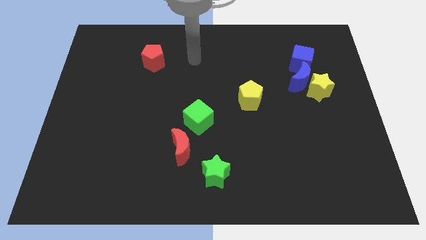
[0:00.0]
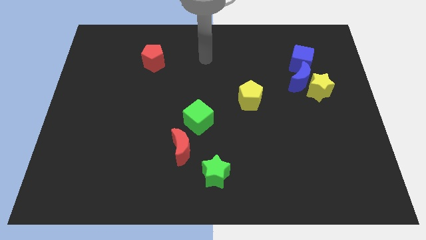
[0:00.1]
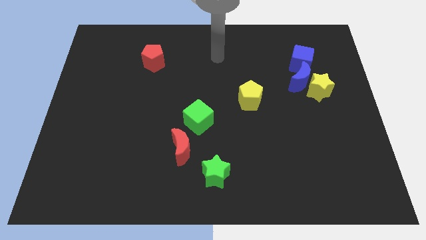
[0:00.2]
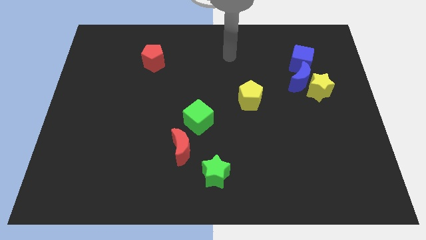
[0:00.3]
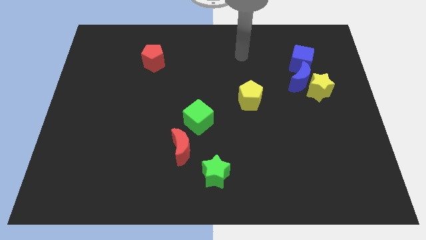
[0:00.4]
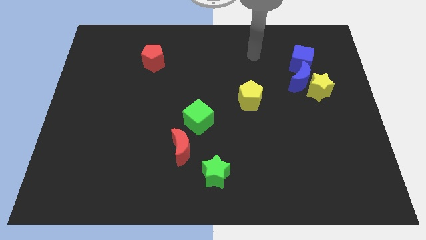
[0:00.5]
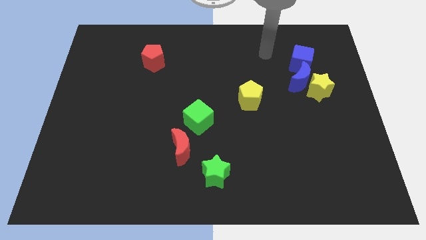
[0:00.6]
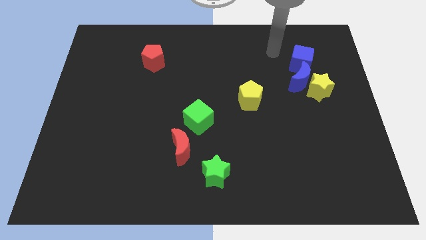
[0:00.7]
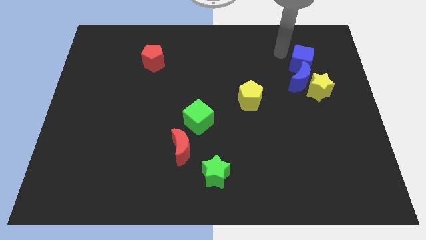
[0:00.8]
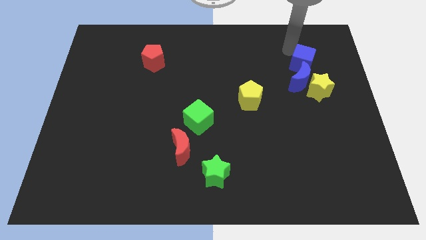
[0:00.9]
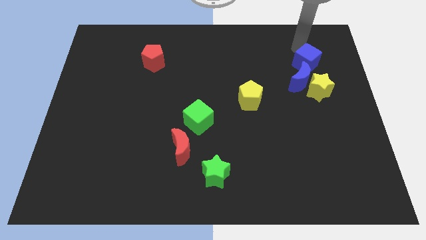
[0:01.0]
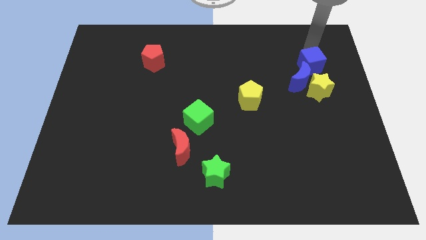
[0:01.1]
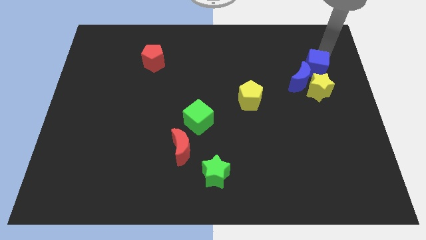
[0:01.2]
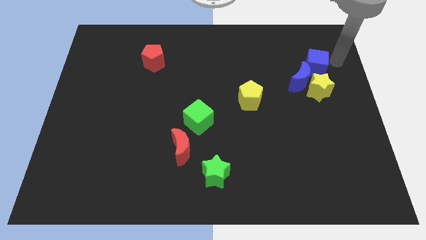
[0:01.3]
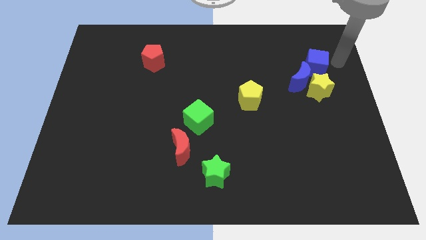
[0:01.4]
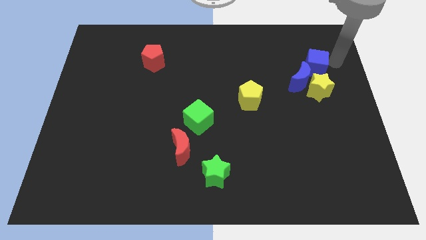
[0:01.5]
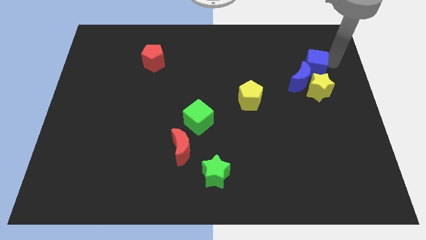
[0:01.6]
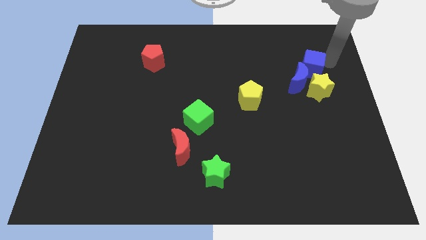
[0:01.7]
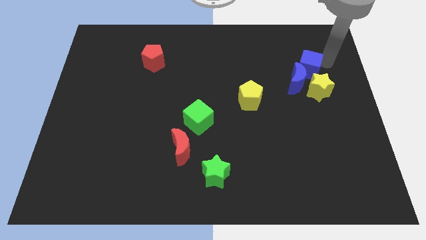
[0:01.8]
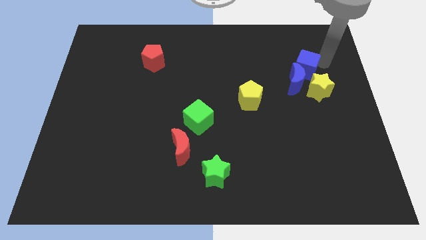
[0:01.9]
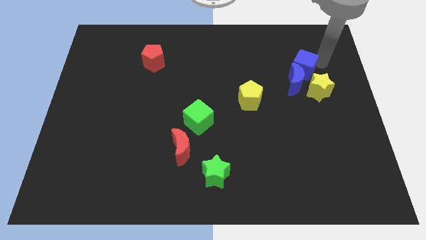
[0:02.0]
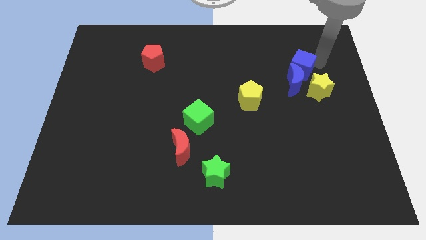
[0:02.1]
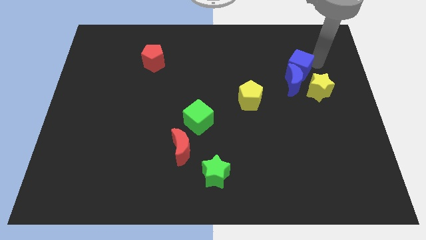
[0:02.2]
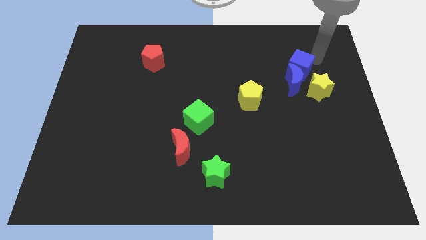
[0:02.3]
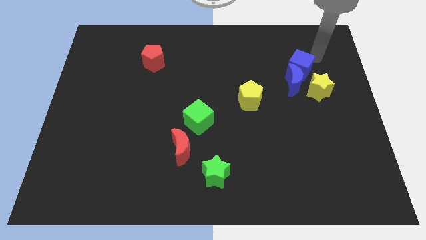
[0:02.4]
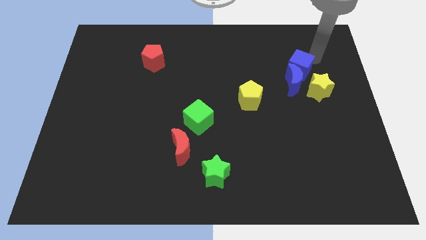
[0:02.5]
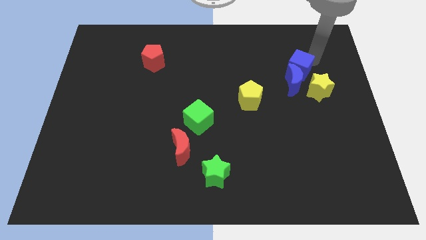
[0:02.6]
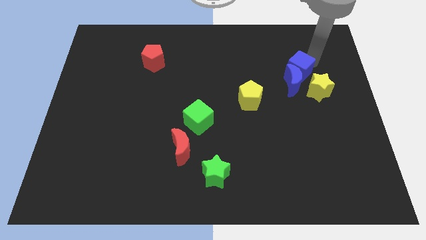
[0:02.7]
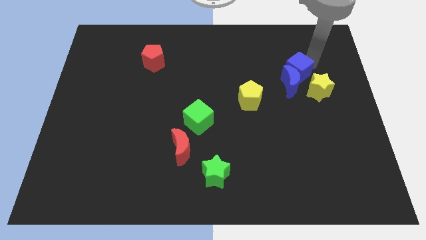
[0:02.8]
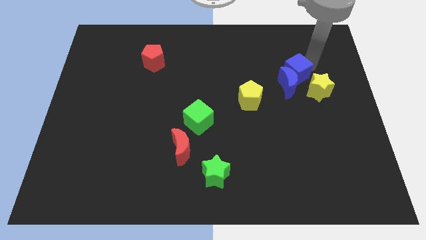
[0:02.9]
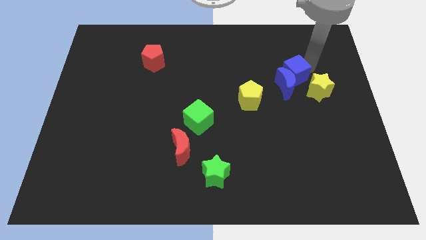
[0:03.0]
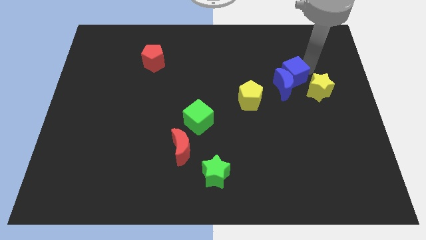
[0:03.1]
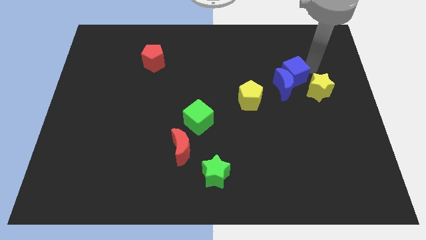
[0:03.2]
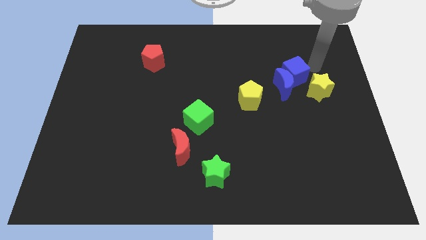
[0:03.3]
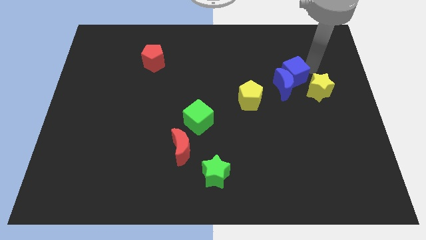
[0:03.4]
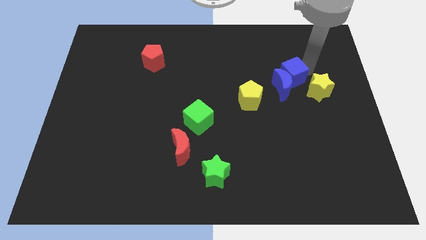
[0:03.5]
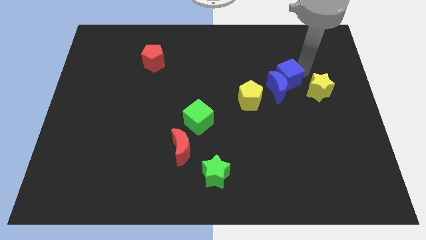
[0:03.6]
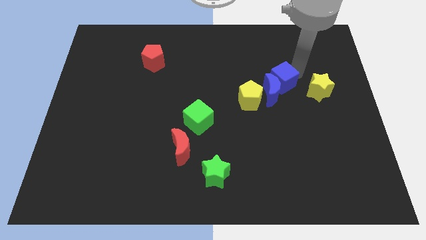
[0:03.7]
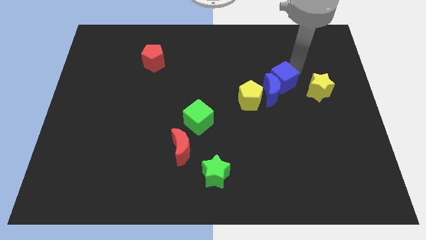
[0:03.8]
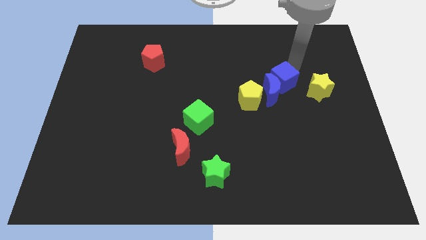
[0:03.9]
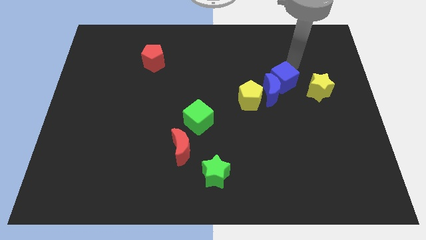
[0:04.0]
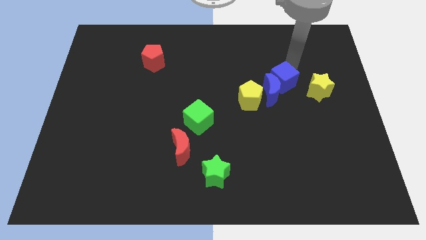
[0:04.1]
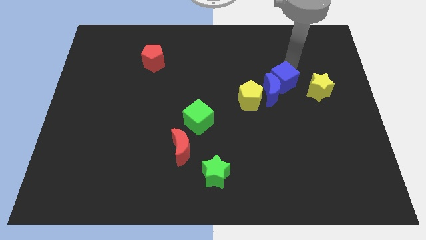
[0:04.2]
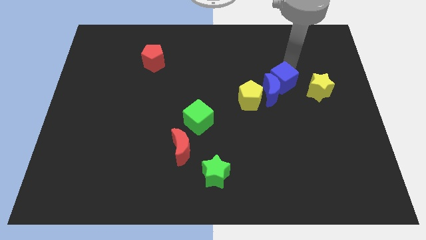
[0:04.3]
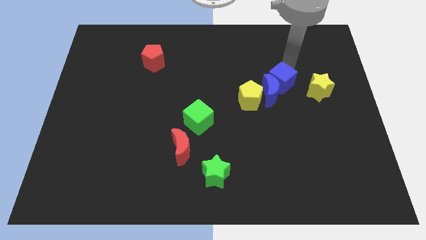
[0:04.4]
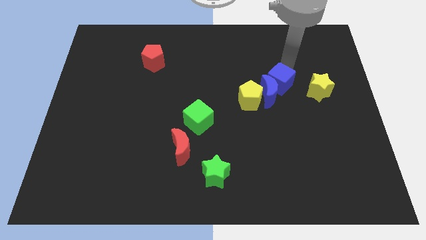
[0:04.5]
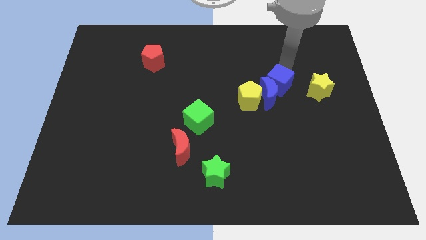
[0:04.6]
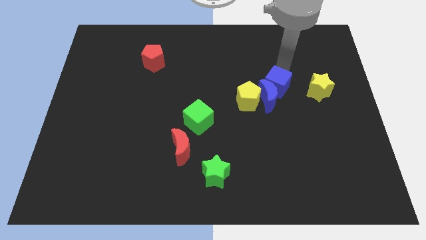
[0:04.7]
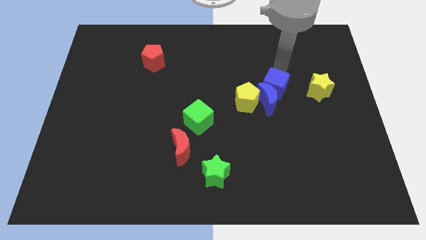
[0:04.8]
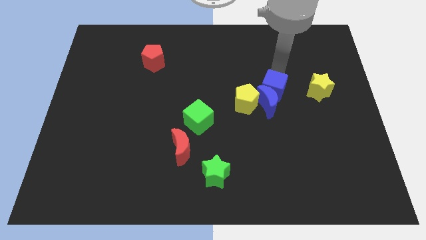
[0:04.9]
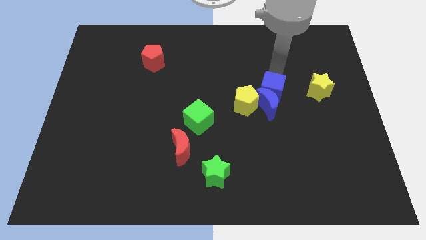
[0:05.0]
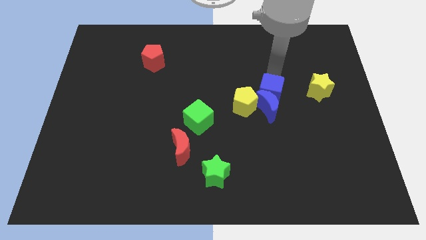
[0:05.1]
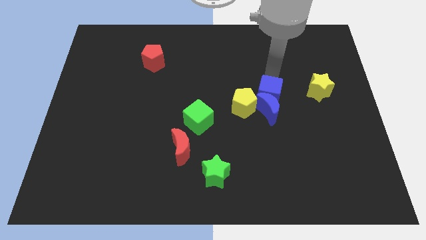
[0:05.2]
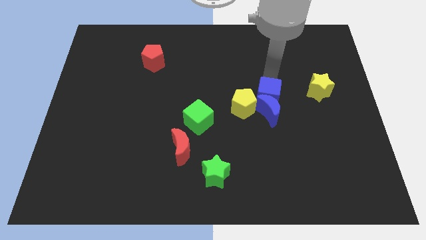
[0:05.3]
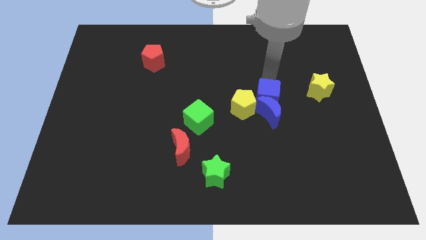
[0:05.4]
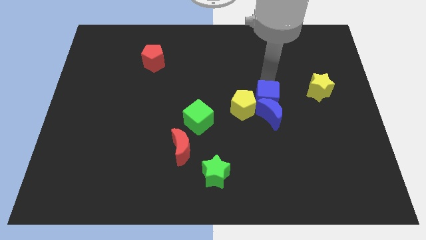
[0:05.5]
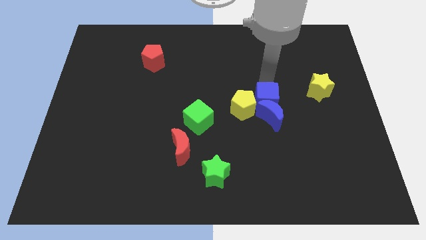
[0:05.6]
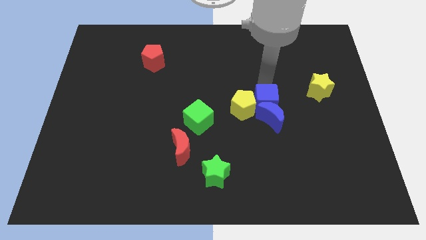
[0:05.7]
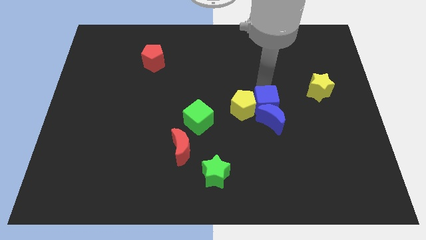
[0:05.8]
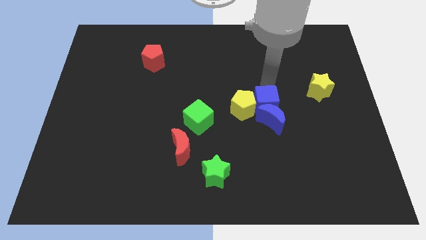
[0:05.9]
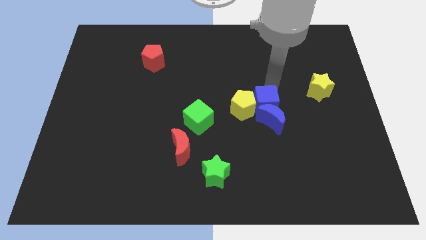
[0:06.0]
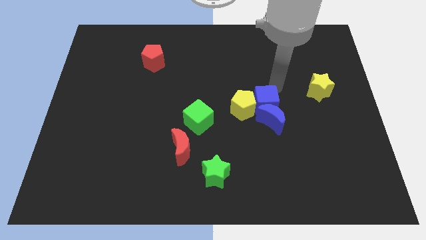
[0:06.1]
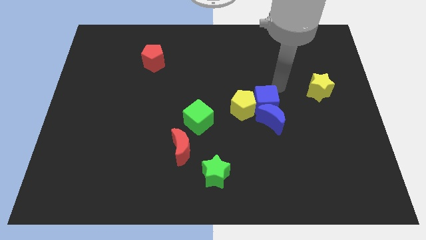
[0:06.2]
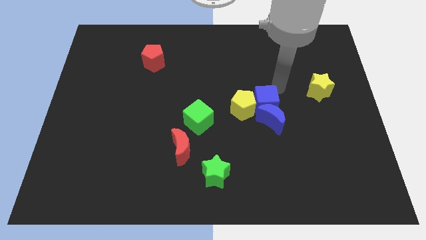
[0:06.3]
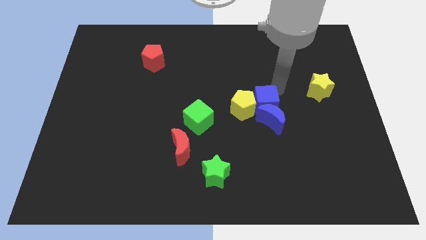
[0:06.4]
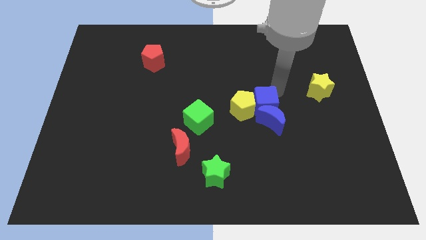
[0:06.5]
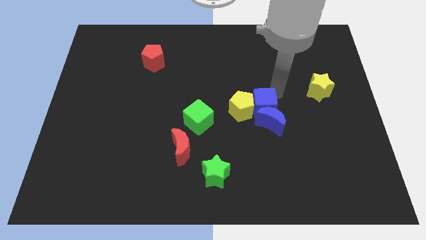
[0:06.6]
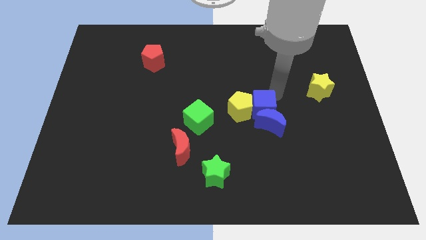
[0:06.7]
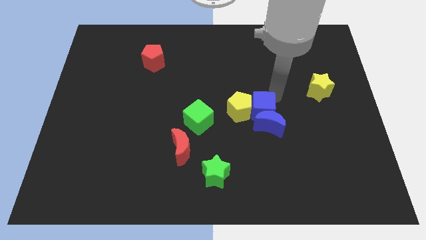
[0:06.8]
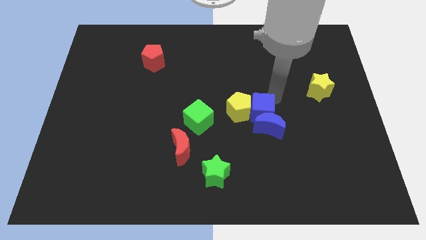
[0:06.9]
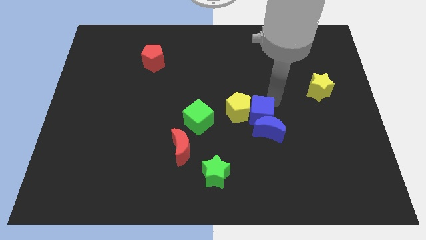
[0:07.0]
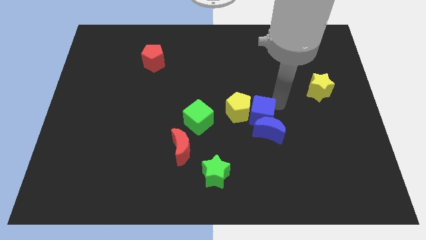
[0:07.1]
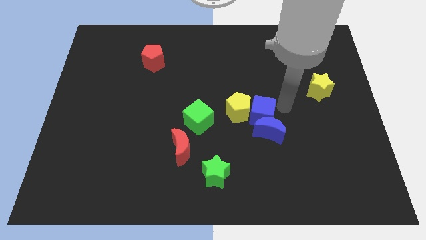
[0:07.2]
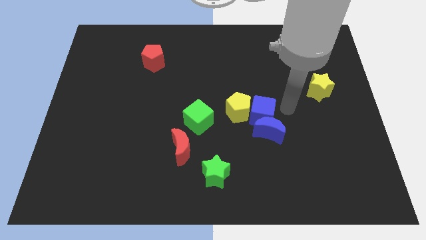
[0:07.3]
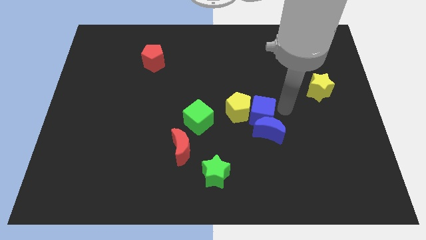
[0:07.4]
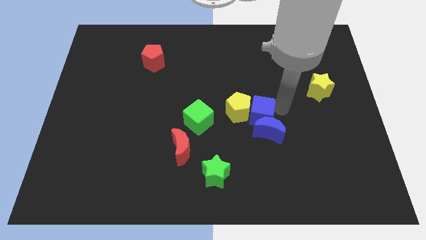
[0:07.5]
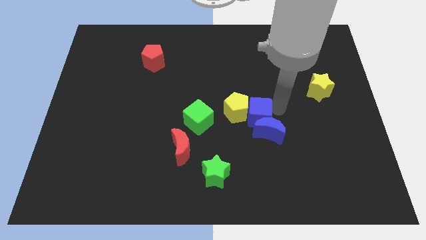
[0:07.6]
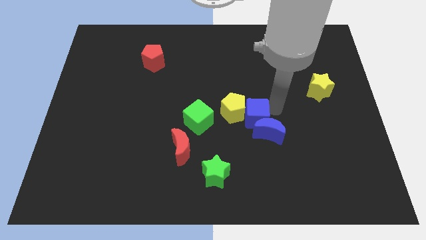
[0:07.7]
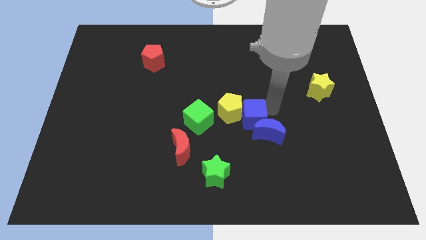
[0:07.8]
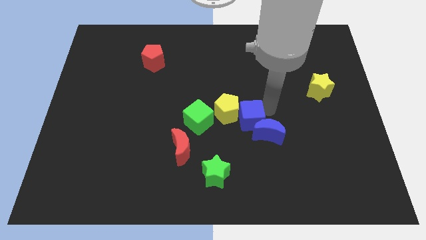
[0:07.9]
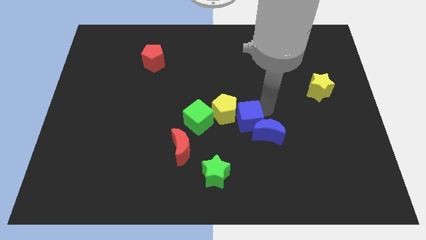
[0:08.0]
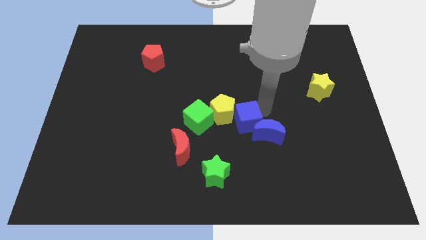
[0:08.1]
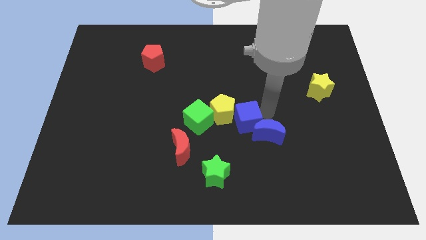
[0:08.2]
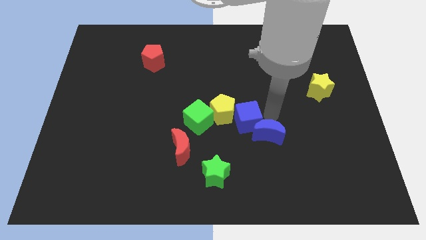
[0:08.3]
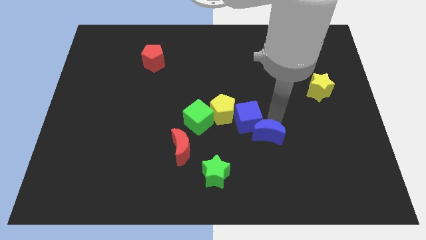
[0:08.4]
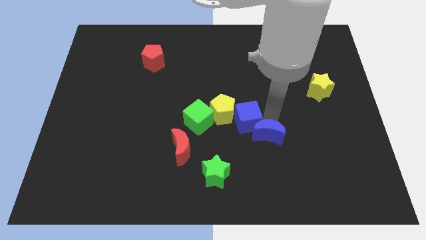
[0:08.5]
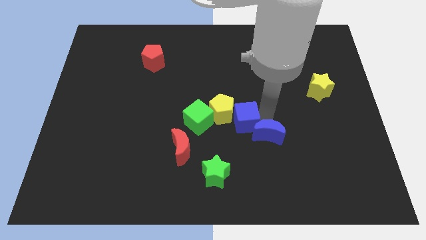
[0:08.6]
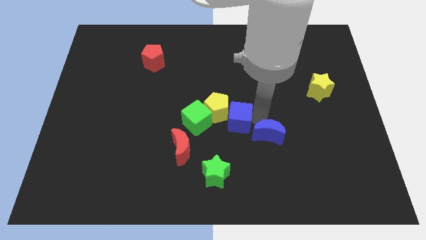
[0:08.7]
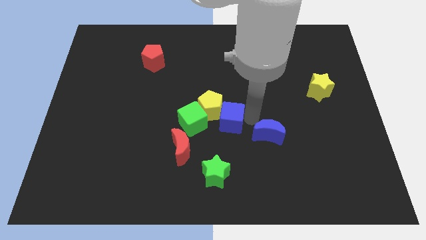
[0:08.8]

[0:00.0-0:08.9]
put the blue cube to the top of the green star
